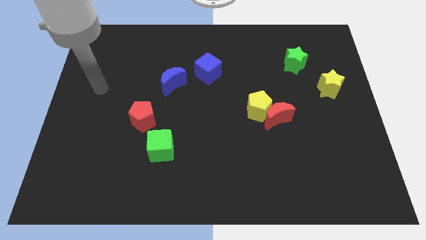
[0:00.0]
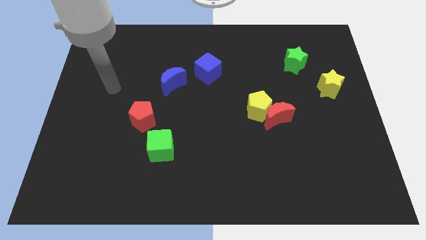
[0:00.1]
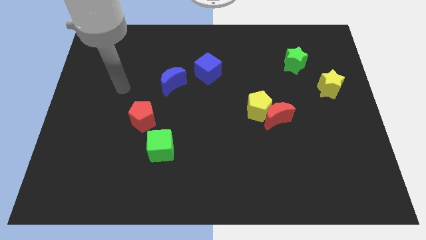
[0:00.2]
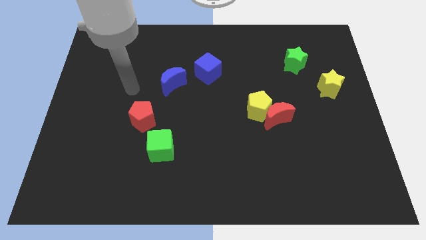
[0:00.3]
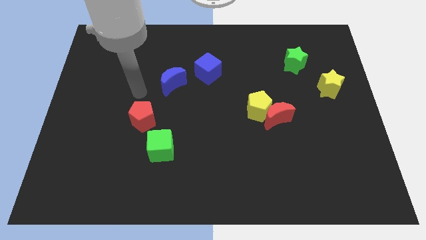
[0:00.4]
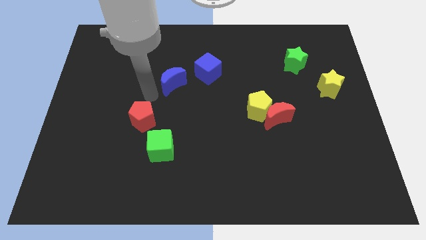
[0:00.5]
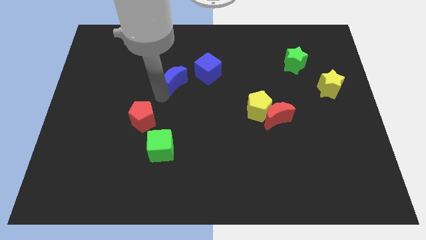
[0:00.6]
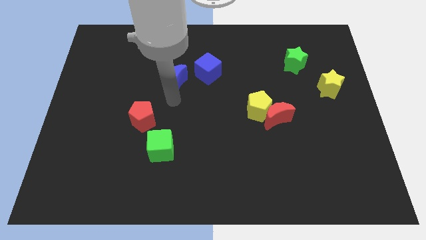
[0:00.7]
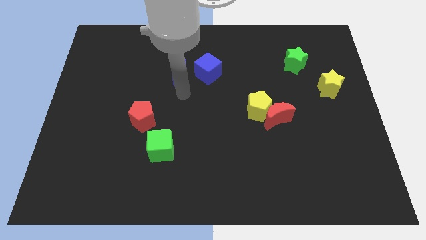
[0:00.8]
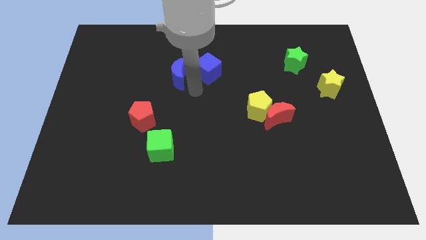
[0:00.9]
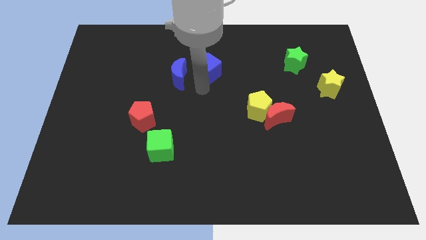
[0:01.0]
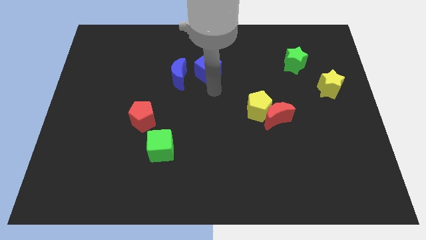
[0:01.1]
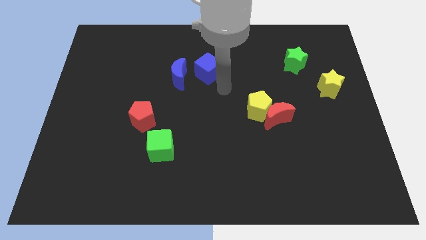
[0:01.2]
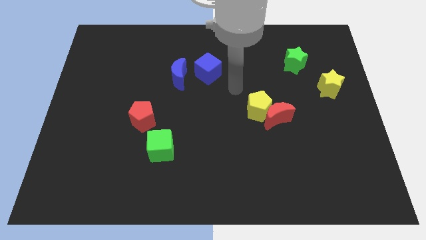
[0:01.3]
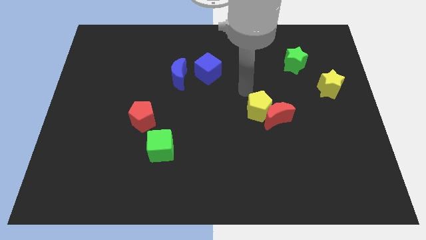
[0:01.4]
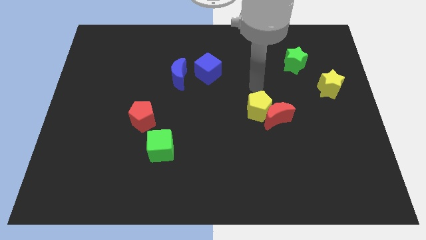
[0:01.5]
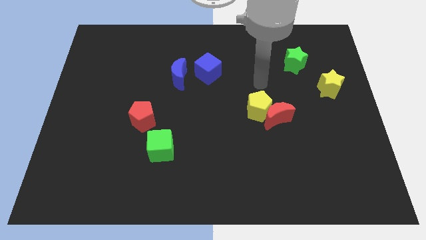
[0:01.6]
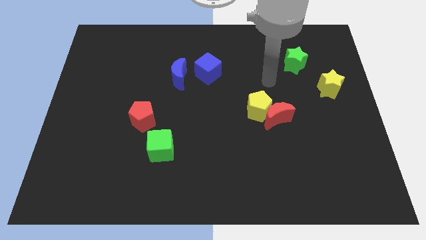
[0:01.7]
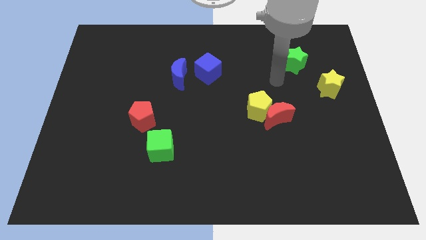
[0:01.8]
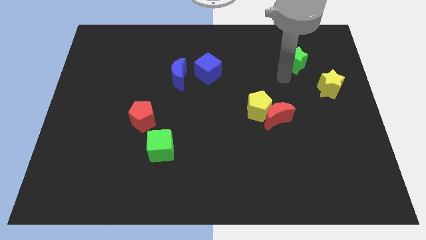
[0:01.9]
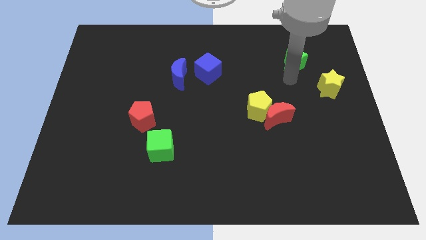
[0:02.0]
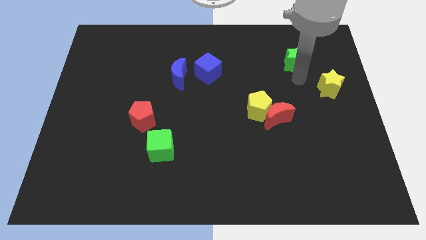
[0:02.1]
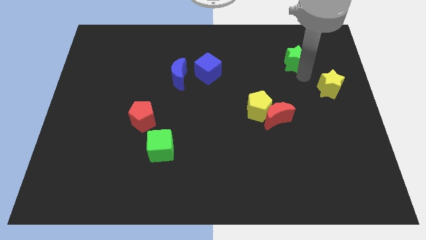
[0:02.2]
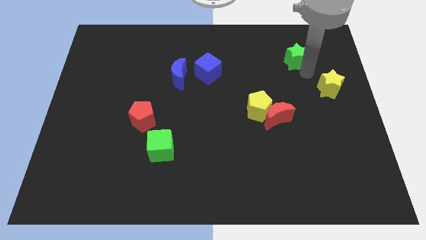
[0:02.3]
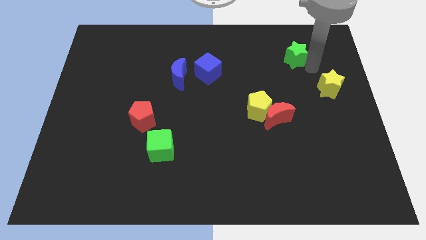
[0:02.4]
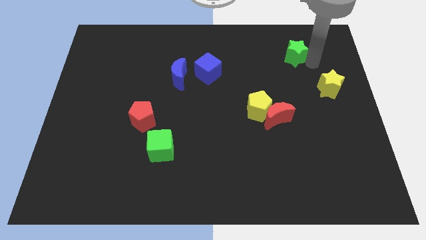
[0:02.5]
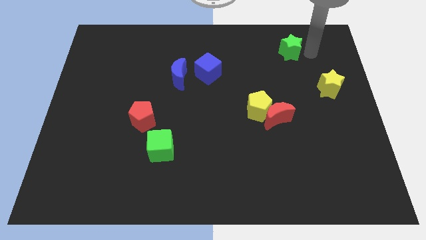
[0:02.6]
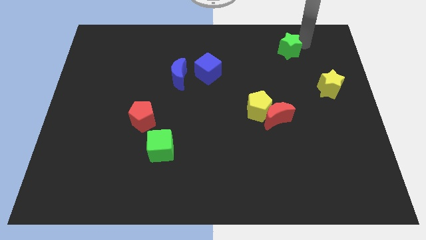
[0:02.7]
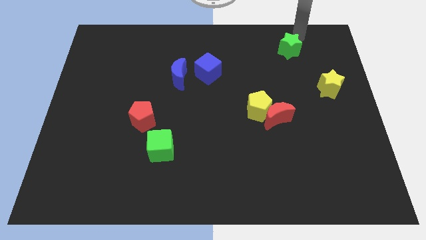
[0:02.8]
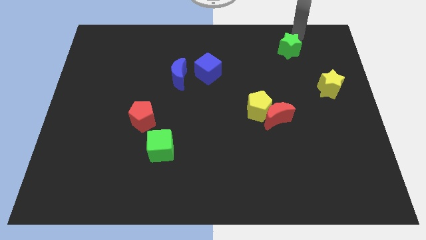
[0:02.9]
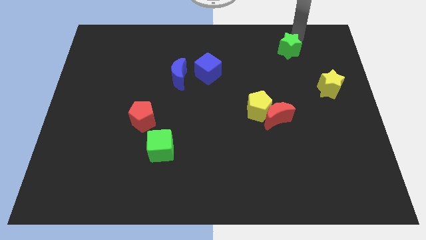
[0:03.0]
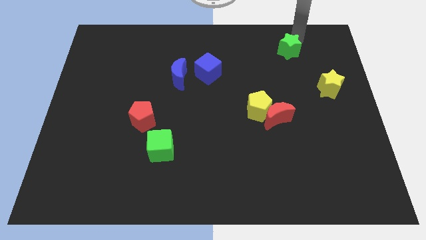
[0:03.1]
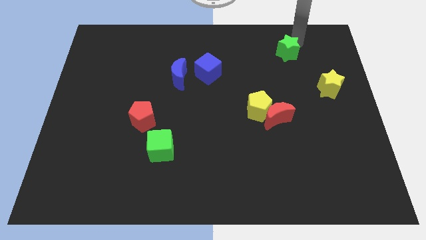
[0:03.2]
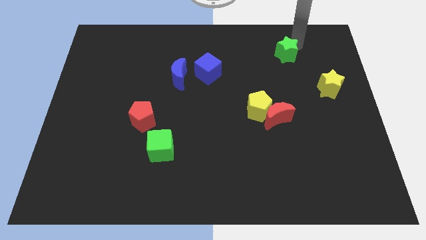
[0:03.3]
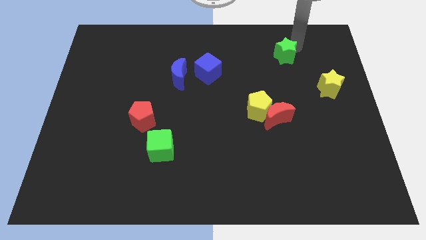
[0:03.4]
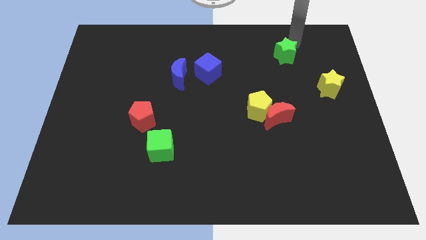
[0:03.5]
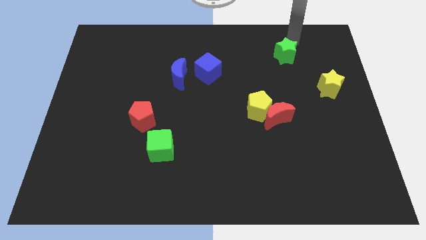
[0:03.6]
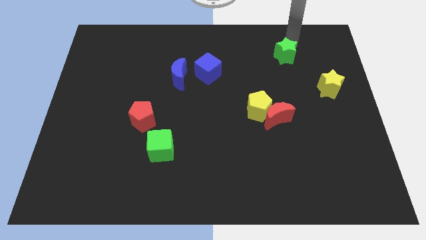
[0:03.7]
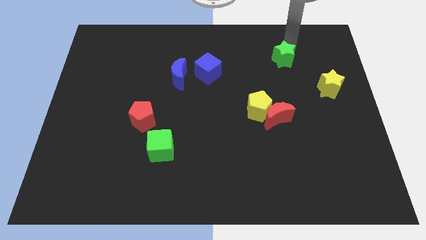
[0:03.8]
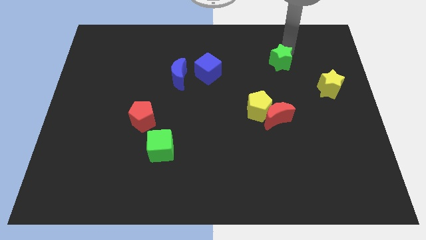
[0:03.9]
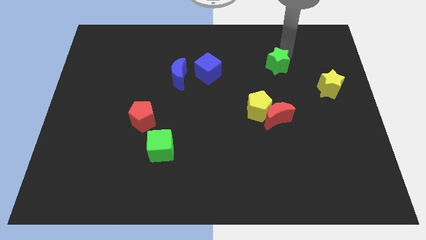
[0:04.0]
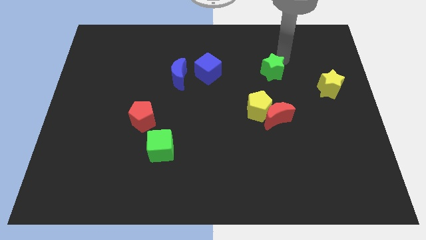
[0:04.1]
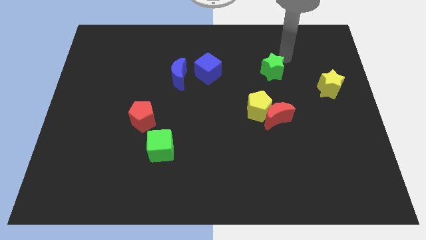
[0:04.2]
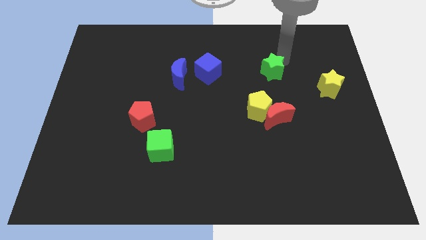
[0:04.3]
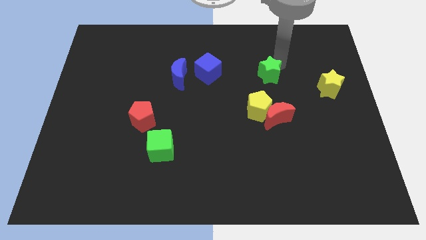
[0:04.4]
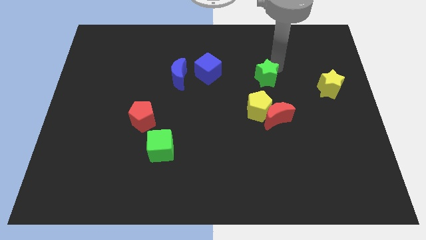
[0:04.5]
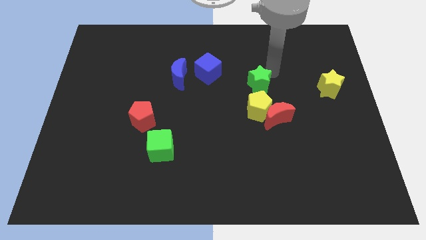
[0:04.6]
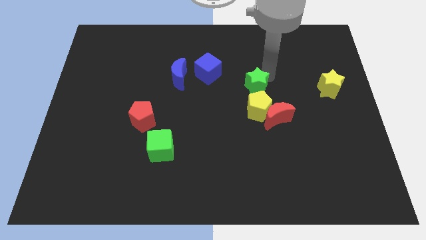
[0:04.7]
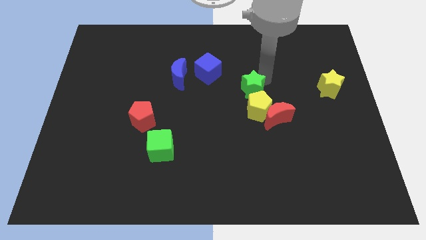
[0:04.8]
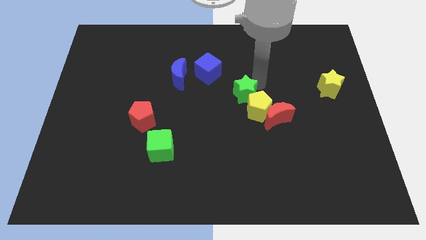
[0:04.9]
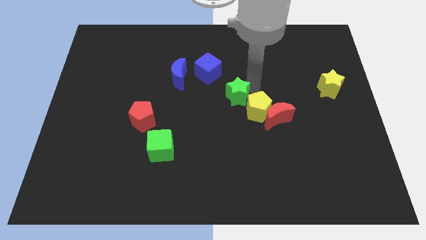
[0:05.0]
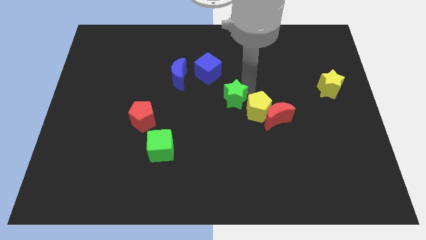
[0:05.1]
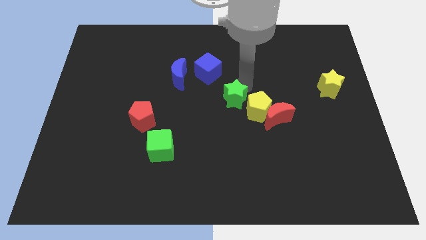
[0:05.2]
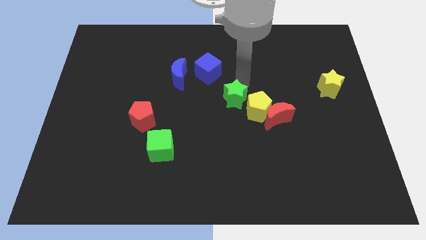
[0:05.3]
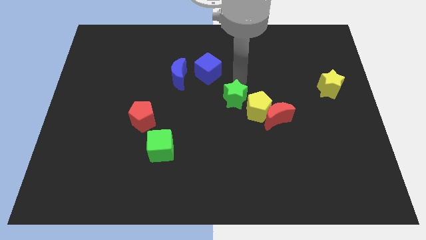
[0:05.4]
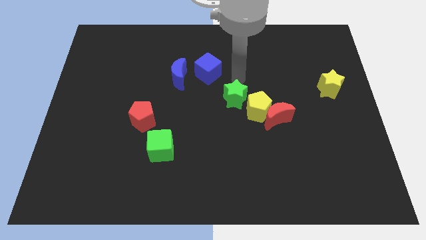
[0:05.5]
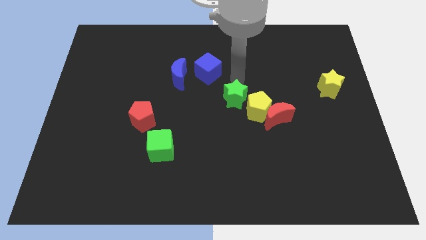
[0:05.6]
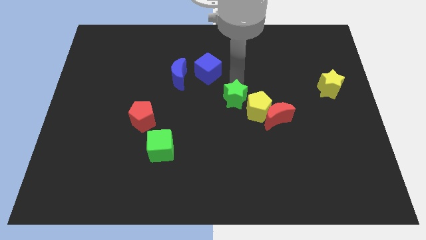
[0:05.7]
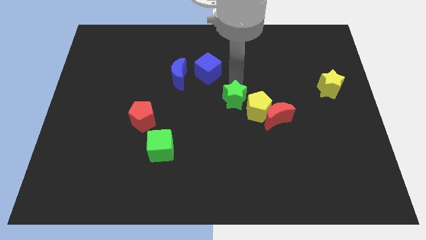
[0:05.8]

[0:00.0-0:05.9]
slide the green star downwards and left diagonally

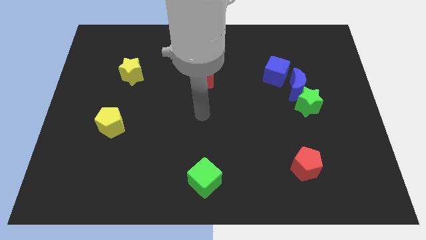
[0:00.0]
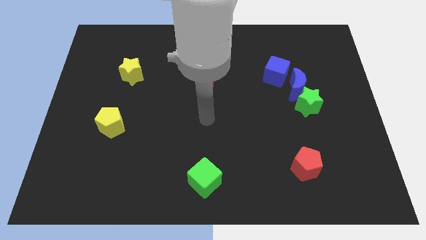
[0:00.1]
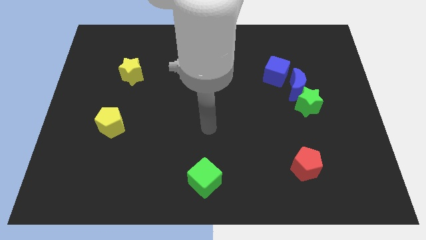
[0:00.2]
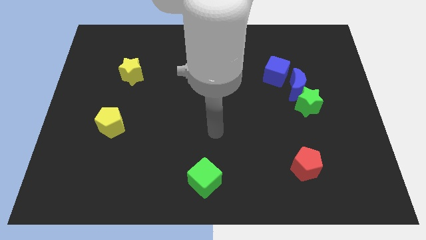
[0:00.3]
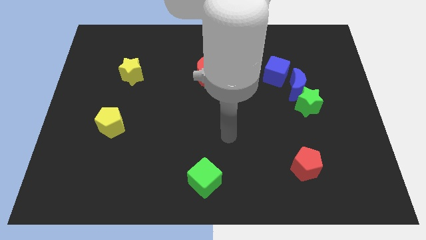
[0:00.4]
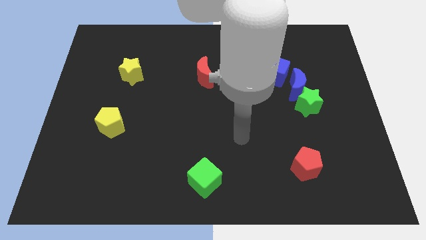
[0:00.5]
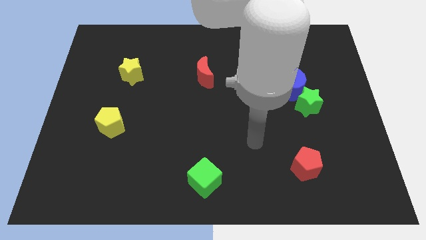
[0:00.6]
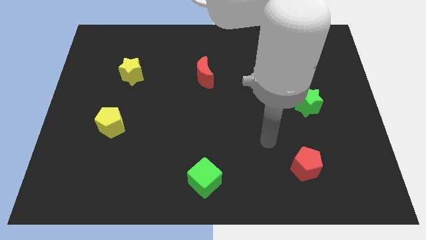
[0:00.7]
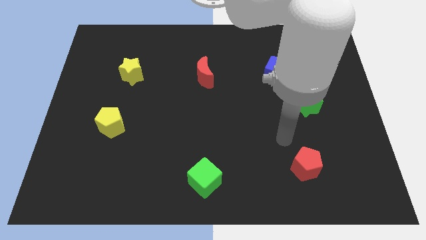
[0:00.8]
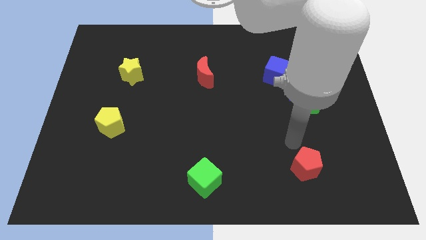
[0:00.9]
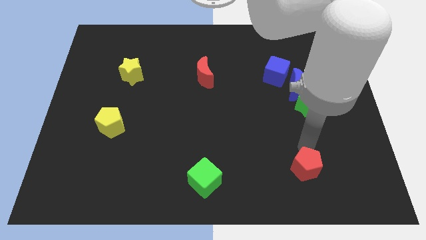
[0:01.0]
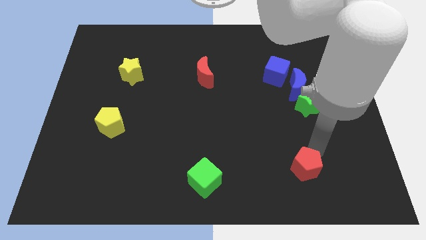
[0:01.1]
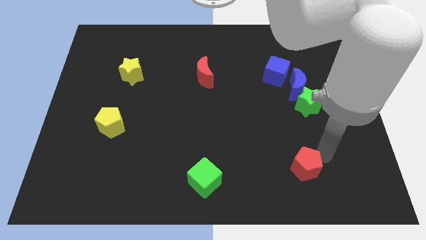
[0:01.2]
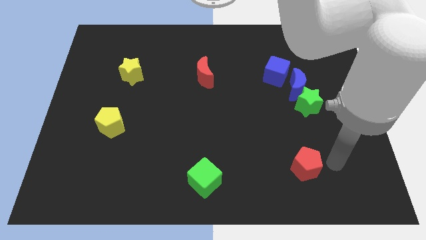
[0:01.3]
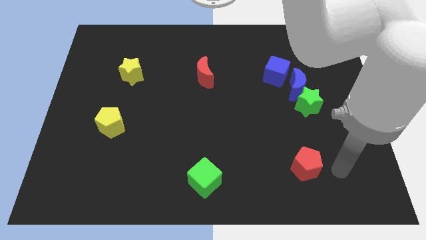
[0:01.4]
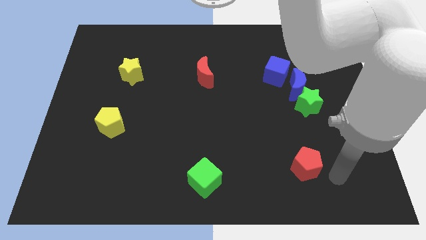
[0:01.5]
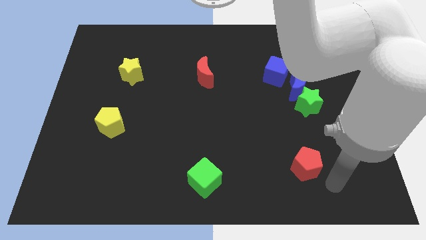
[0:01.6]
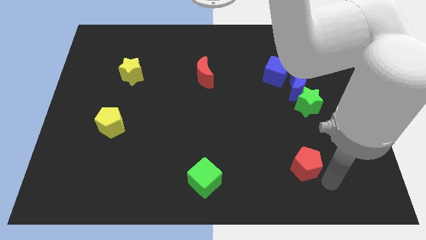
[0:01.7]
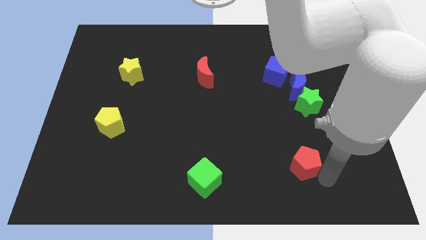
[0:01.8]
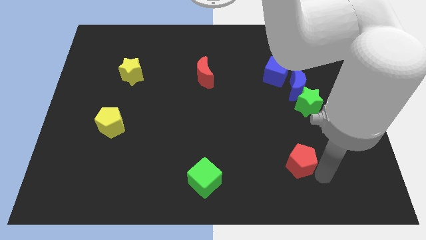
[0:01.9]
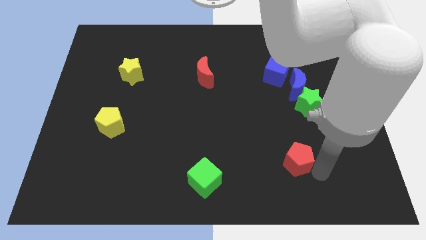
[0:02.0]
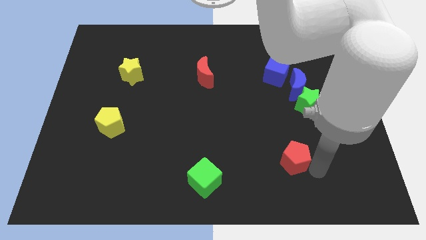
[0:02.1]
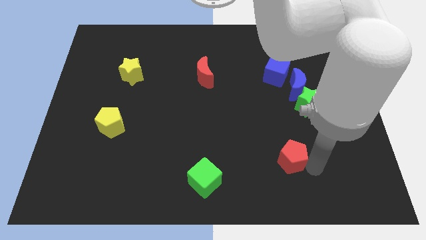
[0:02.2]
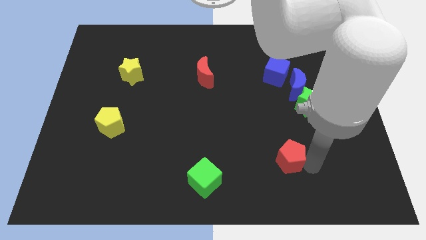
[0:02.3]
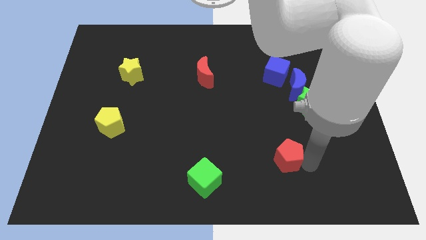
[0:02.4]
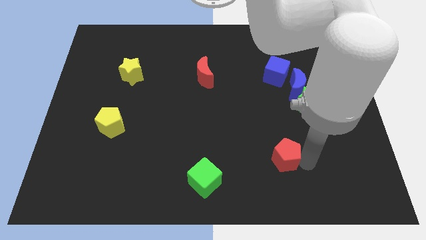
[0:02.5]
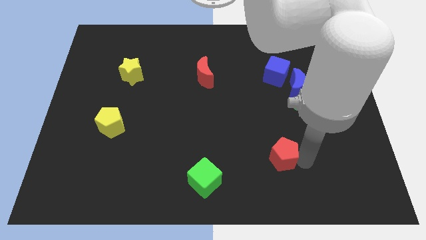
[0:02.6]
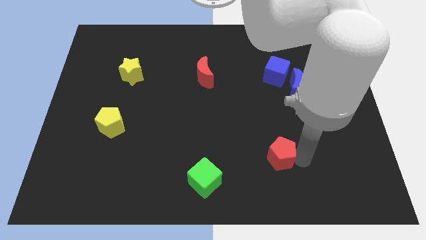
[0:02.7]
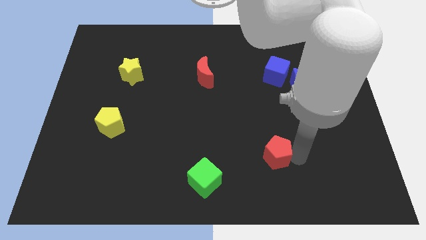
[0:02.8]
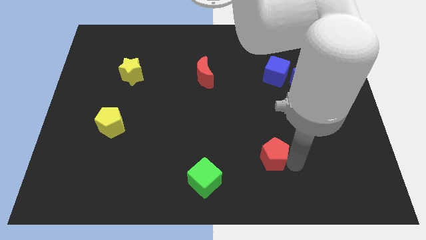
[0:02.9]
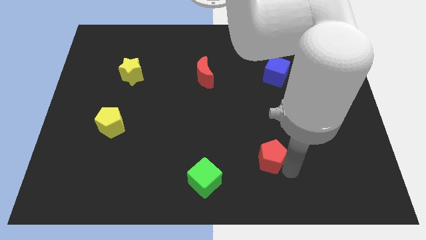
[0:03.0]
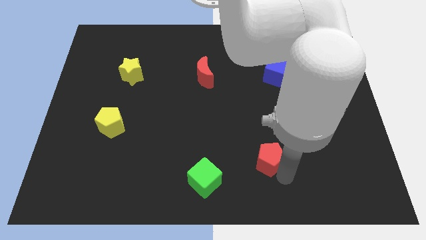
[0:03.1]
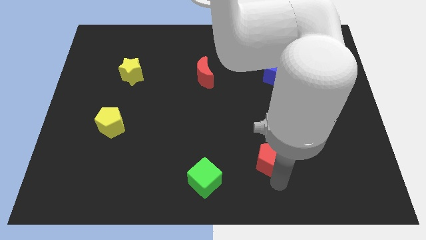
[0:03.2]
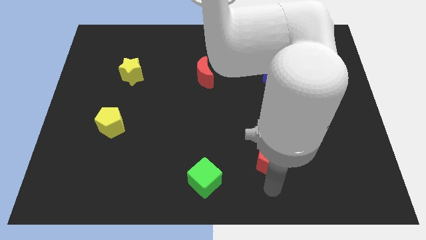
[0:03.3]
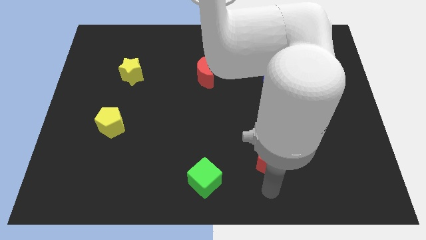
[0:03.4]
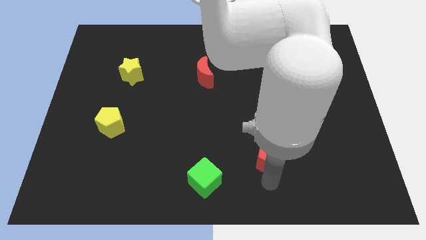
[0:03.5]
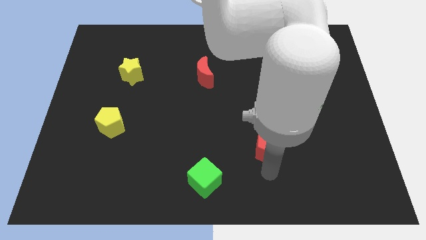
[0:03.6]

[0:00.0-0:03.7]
move the red pentagon up and left somewhat
